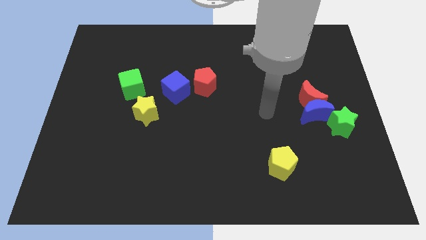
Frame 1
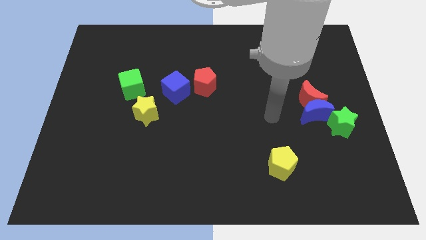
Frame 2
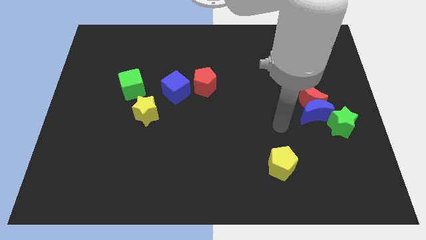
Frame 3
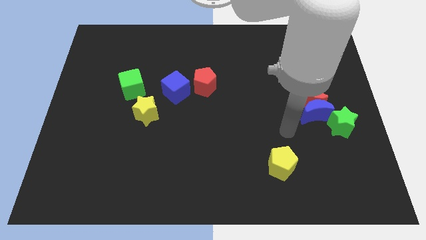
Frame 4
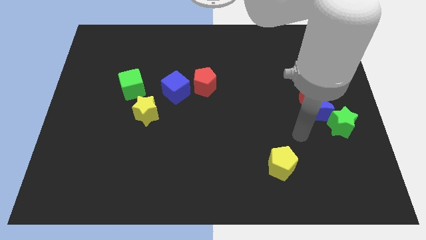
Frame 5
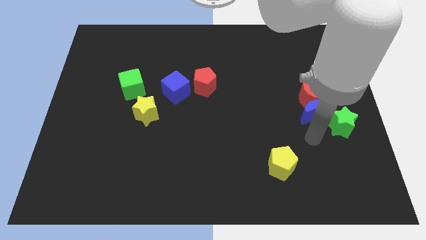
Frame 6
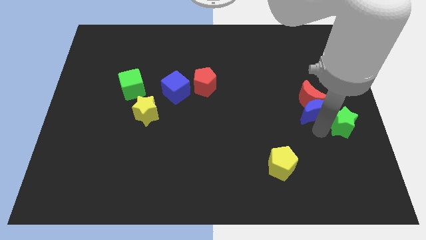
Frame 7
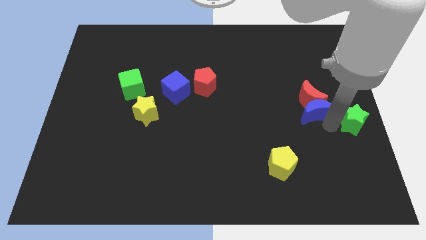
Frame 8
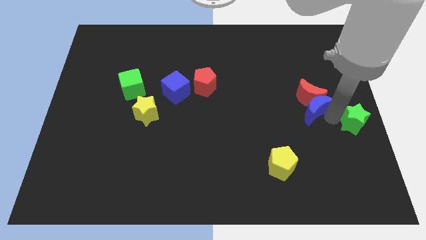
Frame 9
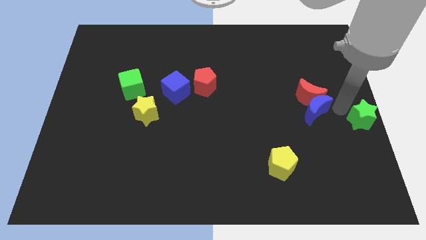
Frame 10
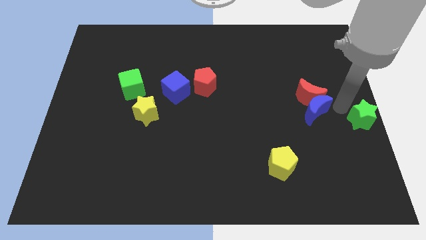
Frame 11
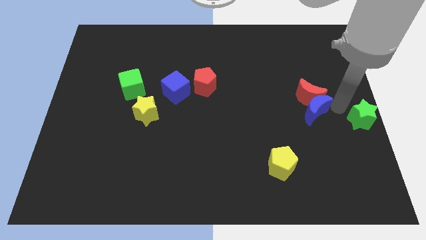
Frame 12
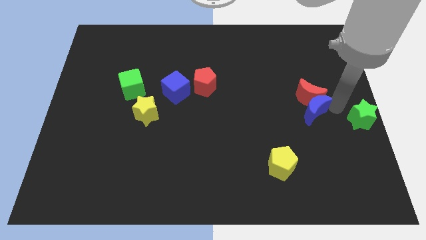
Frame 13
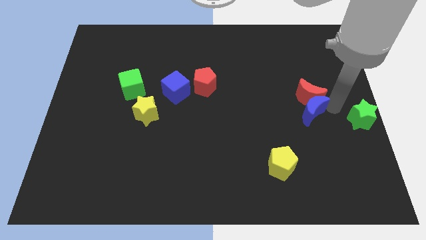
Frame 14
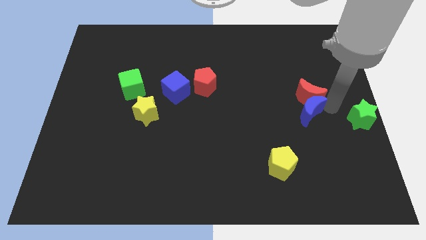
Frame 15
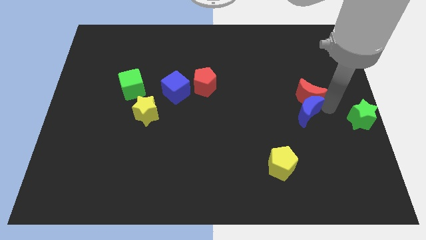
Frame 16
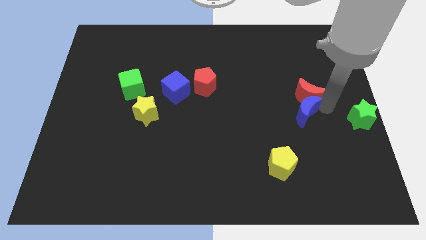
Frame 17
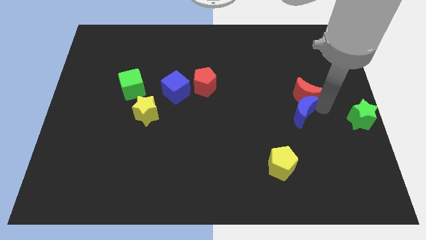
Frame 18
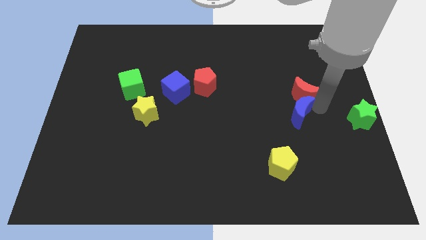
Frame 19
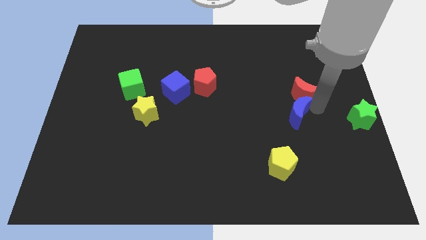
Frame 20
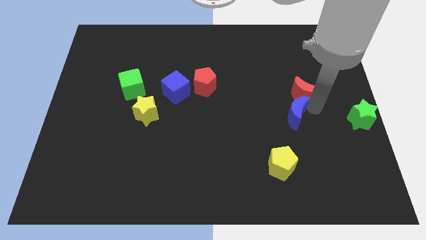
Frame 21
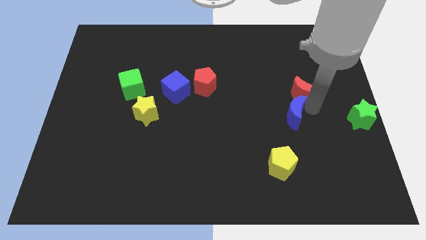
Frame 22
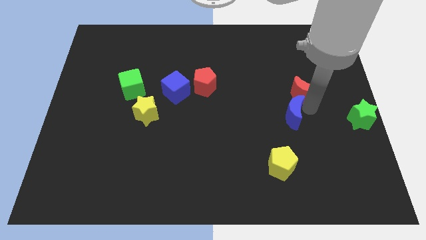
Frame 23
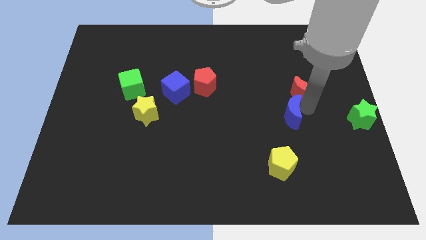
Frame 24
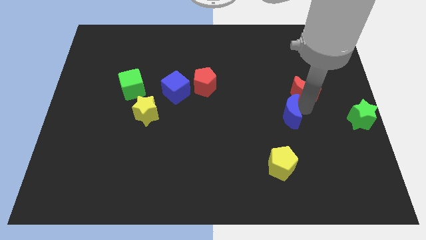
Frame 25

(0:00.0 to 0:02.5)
separate the blue moon from the red moon and green star

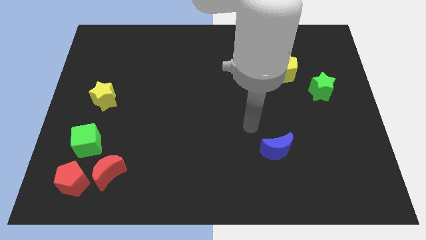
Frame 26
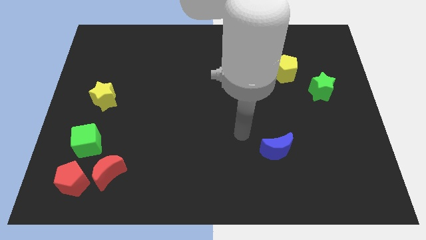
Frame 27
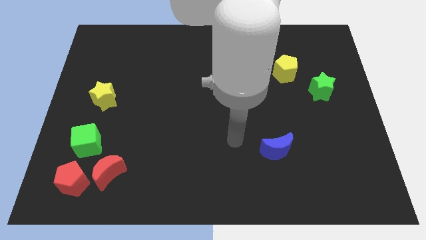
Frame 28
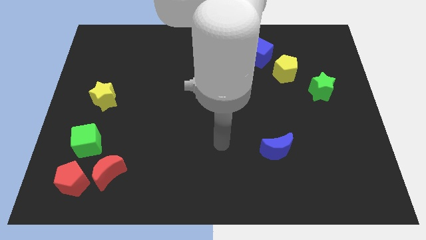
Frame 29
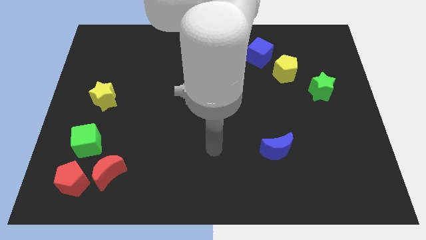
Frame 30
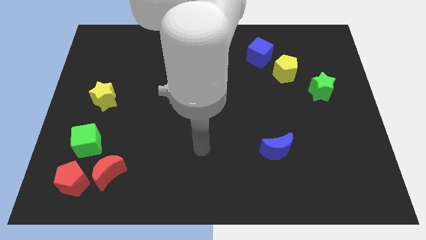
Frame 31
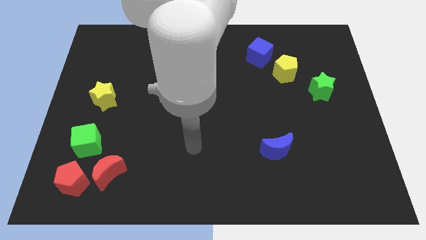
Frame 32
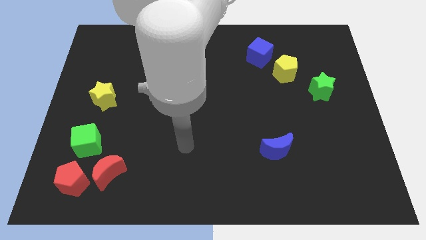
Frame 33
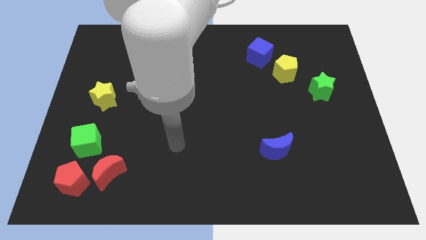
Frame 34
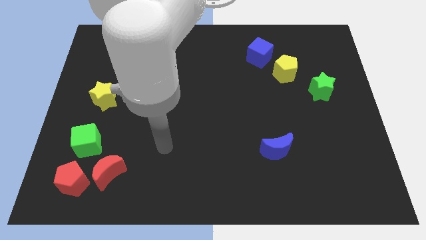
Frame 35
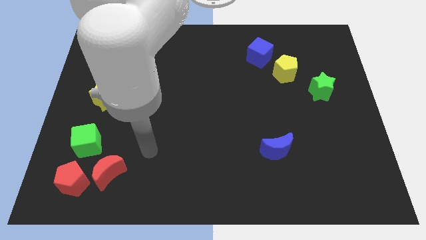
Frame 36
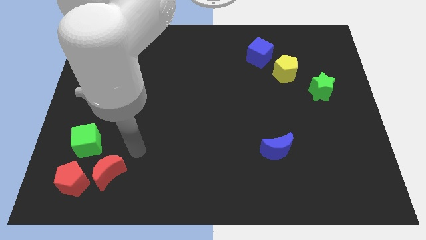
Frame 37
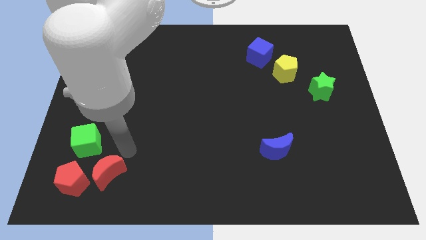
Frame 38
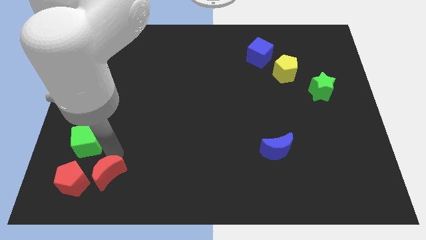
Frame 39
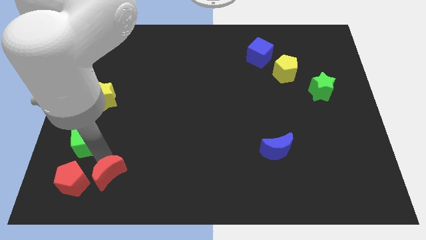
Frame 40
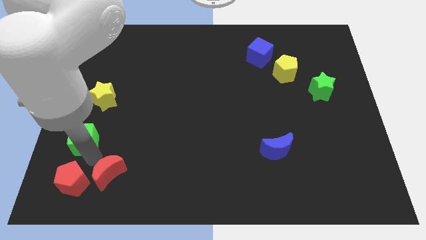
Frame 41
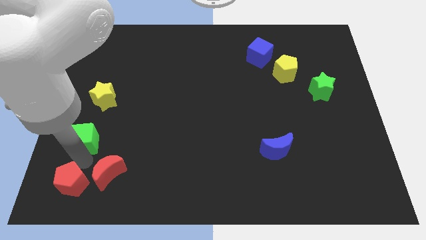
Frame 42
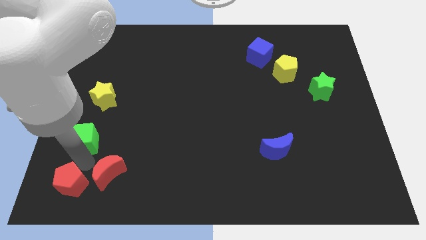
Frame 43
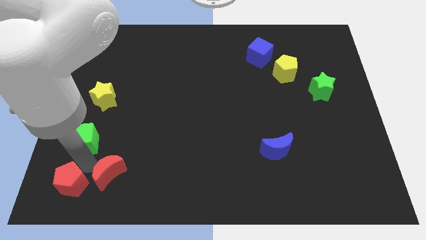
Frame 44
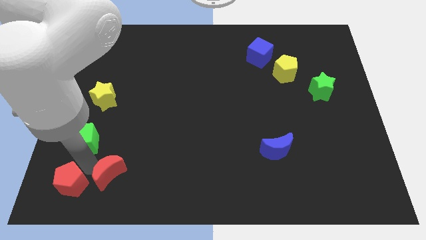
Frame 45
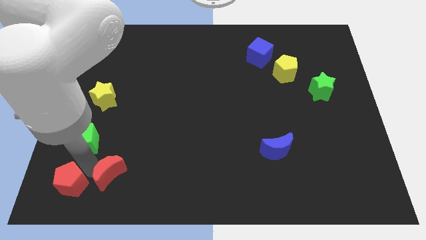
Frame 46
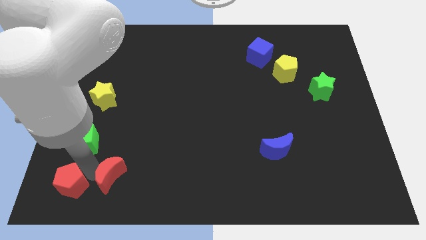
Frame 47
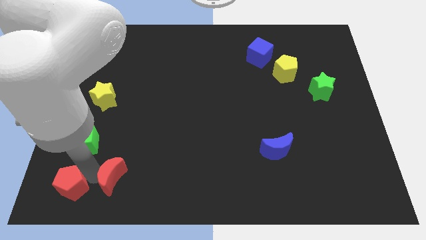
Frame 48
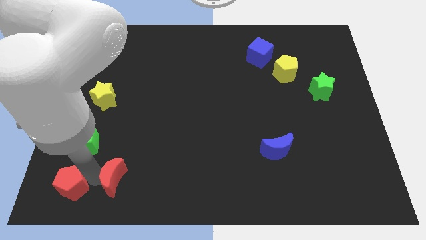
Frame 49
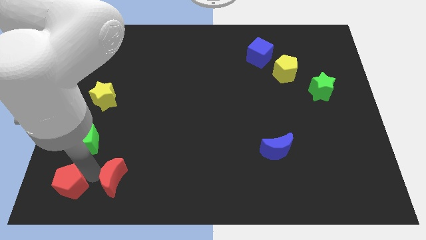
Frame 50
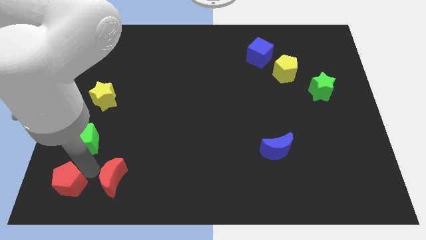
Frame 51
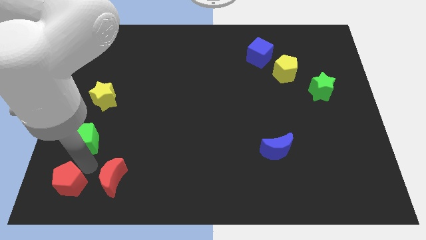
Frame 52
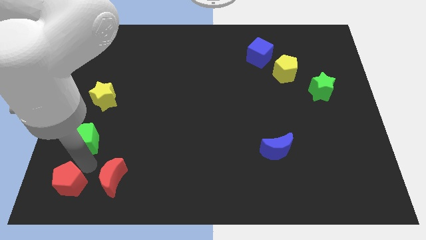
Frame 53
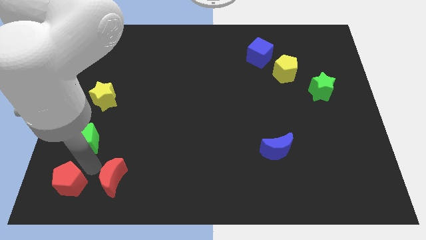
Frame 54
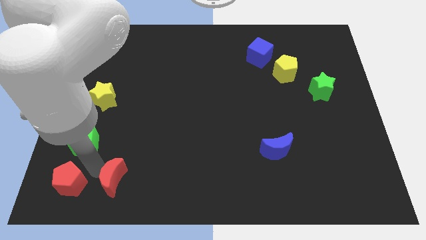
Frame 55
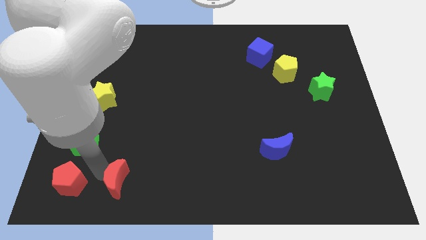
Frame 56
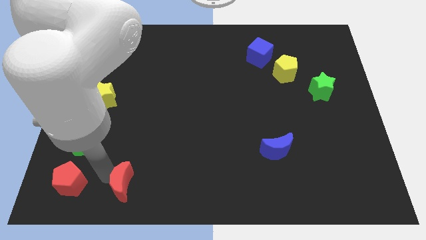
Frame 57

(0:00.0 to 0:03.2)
move the red moon away from the red pentagon and green cube

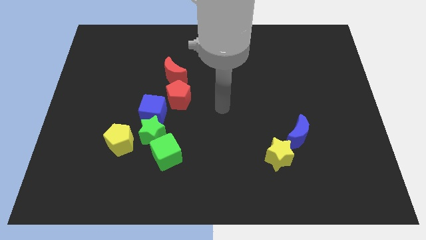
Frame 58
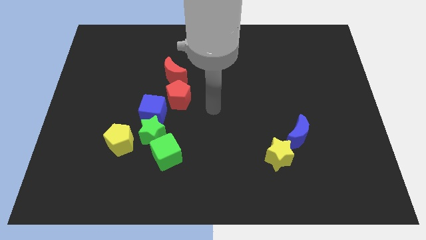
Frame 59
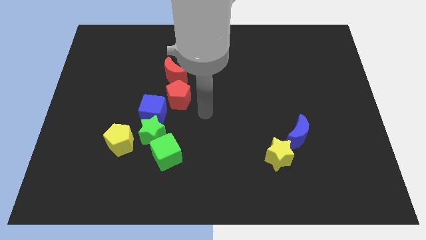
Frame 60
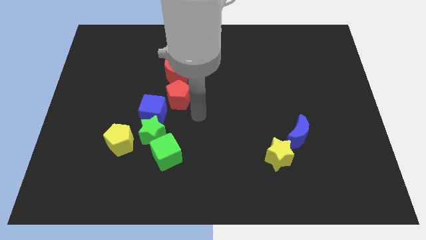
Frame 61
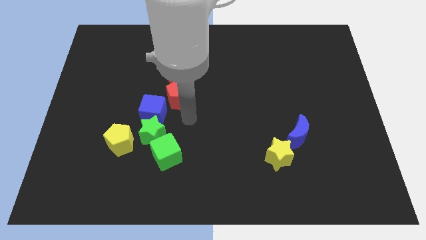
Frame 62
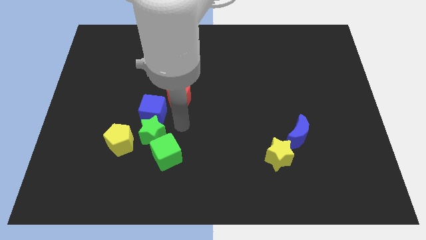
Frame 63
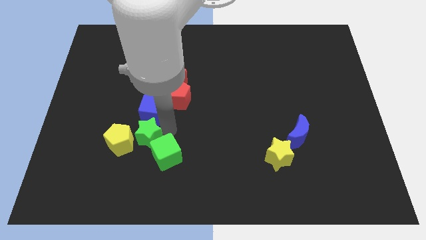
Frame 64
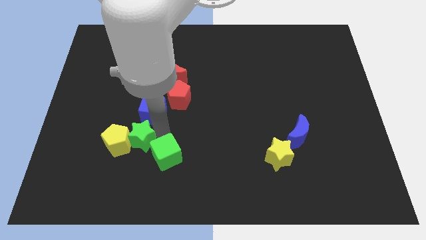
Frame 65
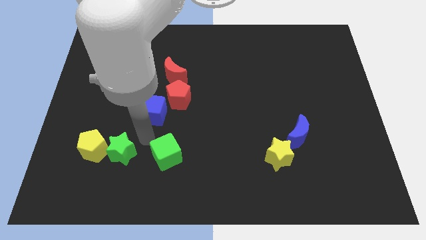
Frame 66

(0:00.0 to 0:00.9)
pull the green cube apart from the green star

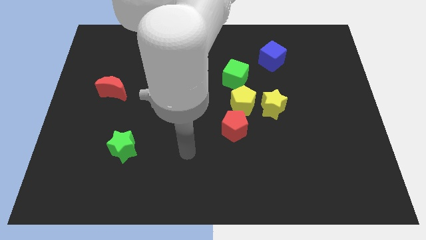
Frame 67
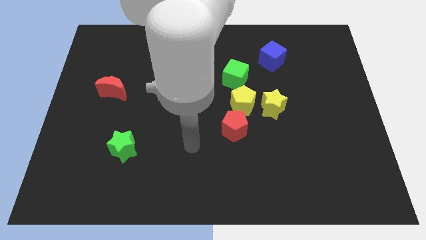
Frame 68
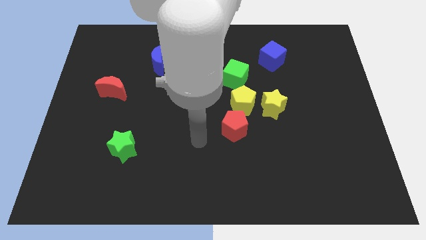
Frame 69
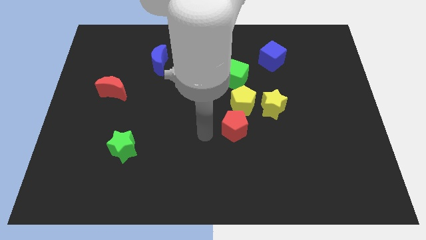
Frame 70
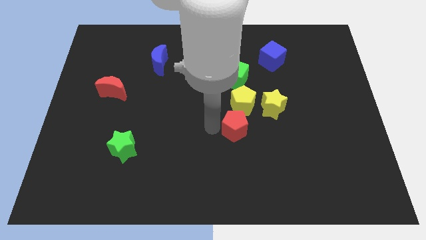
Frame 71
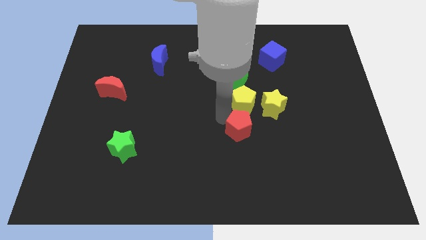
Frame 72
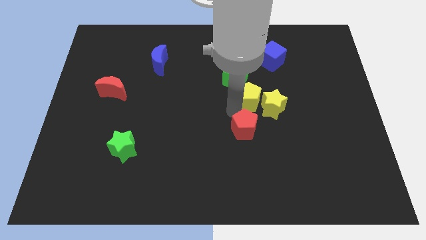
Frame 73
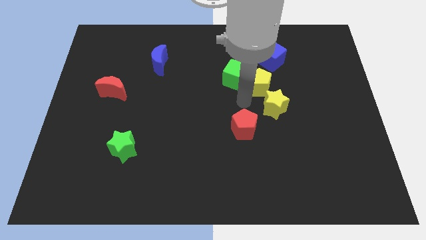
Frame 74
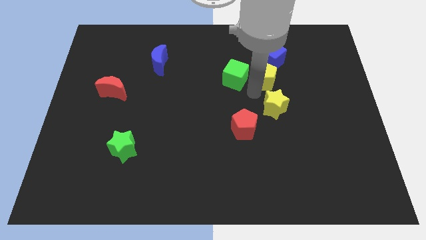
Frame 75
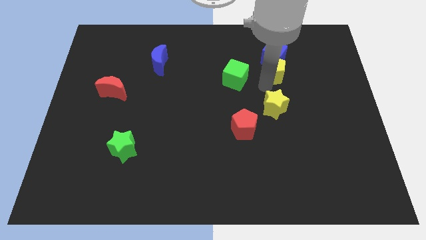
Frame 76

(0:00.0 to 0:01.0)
move the yellow star away from the yellow pentagon

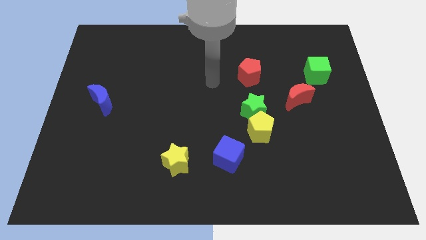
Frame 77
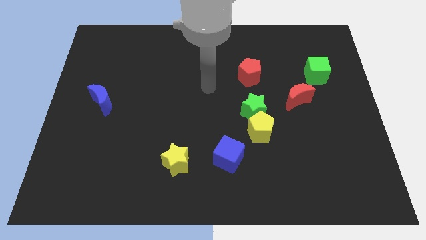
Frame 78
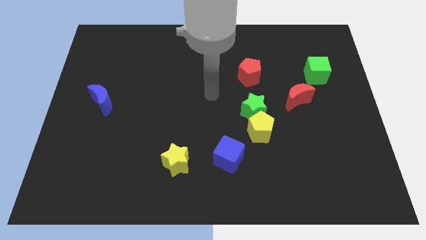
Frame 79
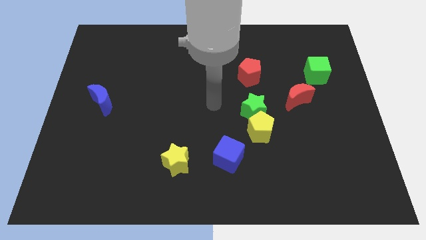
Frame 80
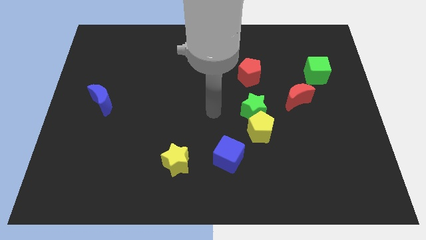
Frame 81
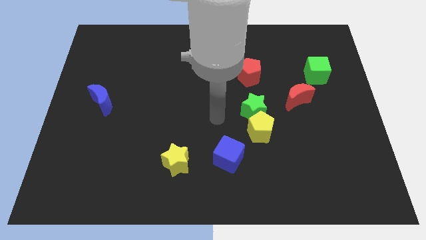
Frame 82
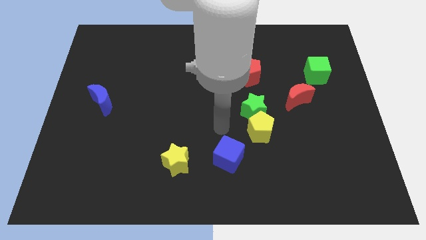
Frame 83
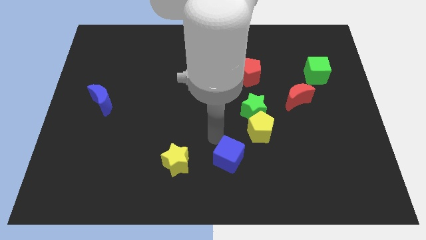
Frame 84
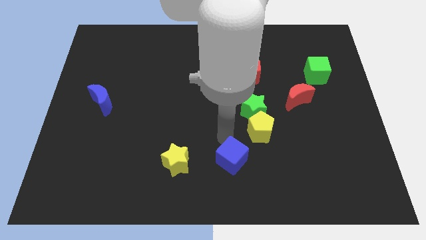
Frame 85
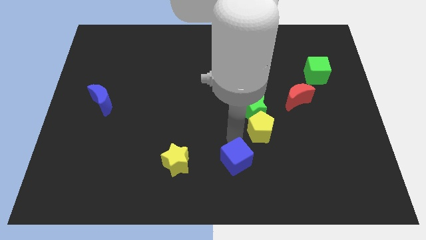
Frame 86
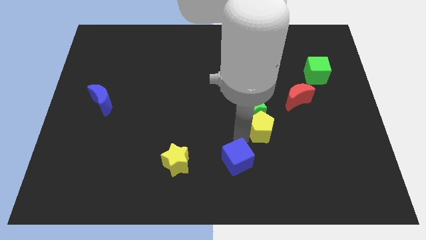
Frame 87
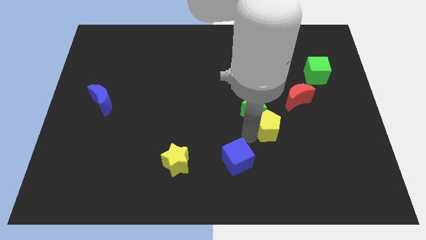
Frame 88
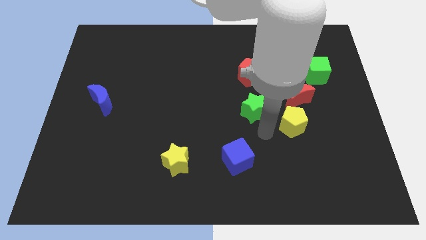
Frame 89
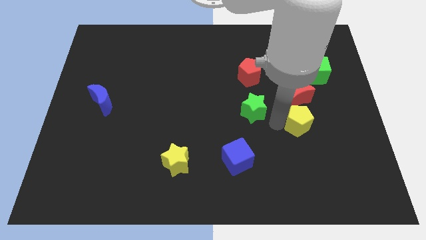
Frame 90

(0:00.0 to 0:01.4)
pull the green star apart from the yellow pentagon

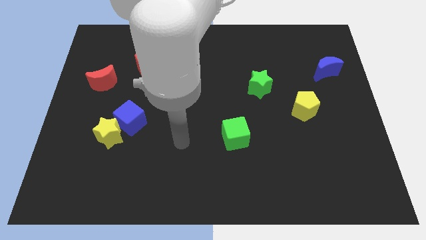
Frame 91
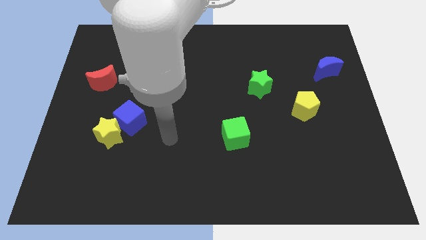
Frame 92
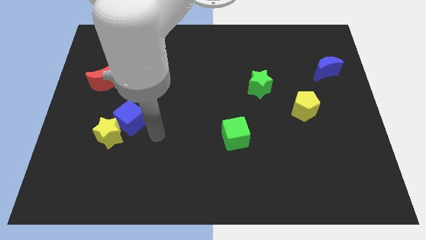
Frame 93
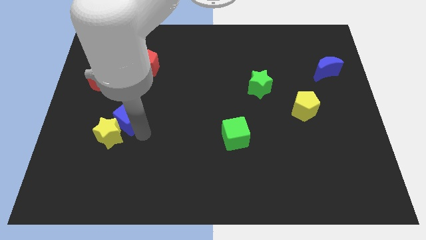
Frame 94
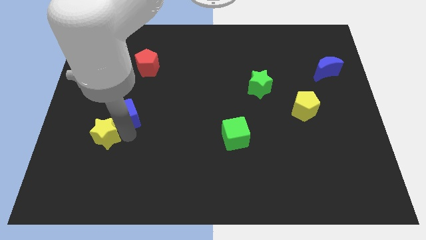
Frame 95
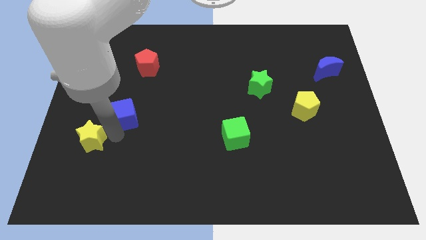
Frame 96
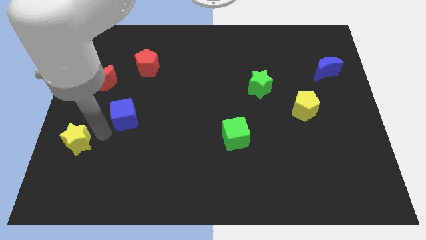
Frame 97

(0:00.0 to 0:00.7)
move the blue cube away from the yellow star
